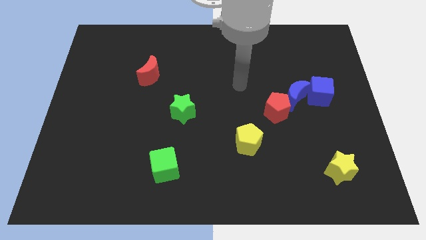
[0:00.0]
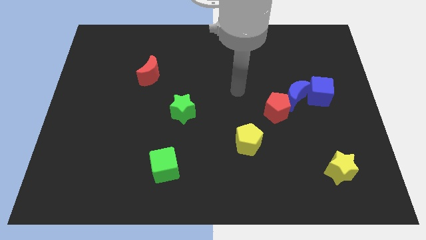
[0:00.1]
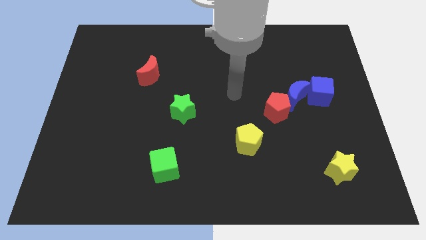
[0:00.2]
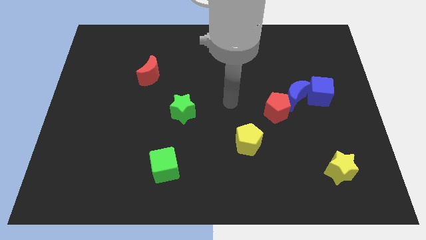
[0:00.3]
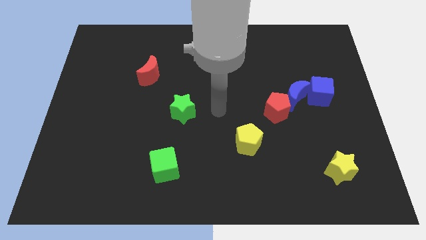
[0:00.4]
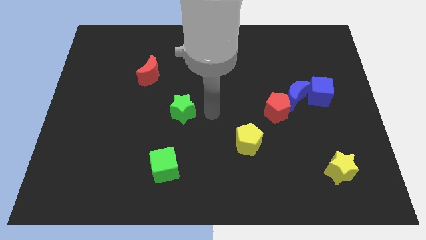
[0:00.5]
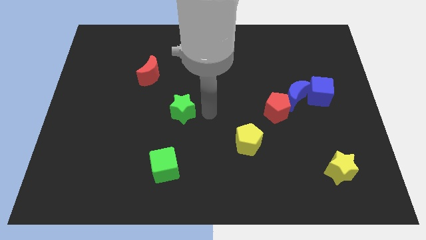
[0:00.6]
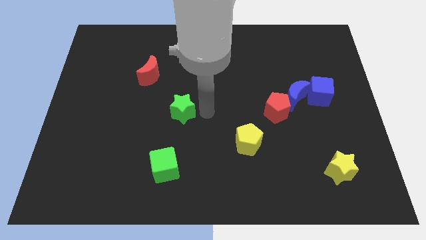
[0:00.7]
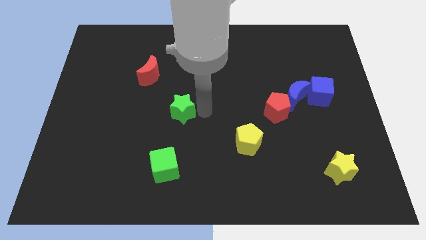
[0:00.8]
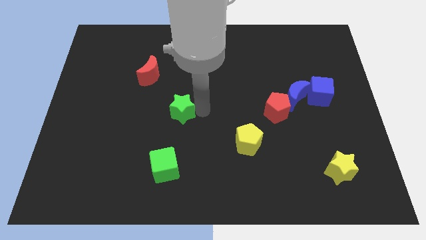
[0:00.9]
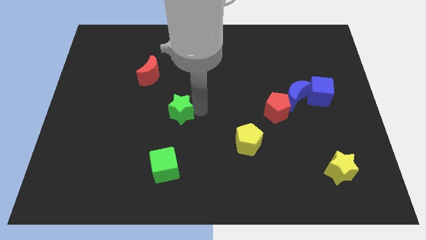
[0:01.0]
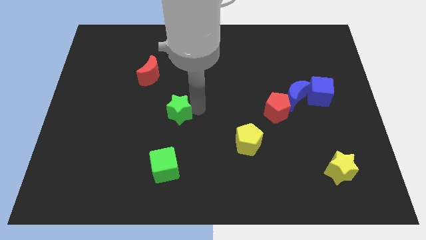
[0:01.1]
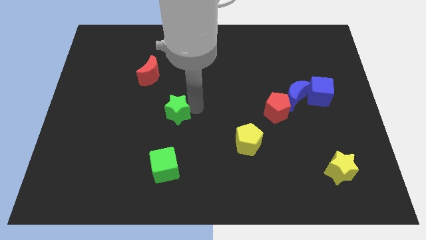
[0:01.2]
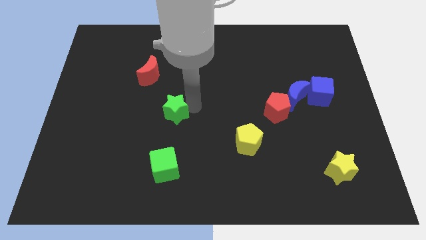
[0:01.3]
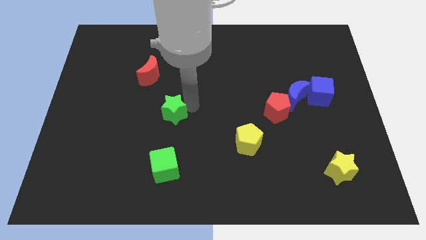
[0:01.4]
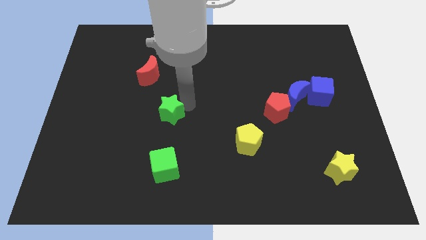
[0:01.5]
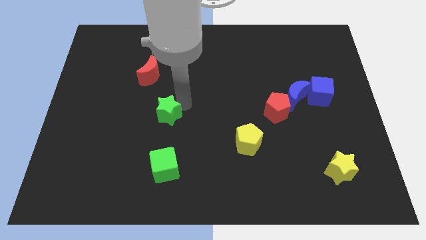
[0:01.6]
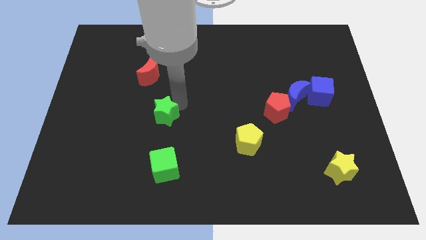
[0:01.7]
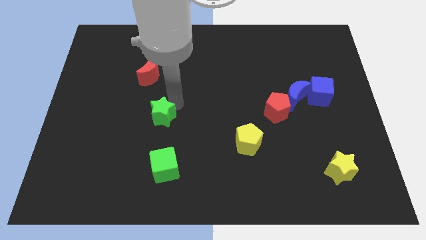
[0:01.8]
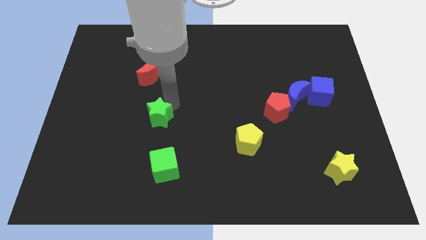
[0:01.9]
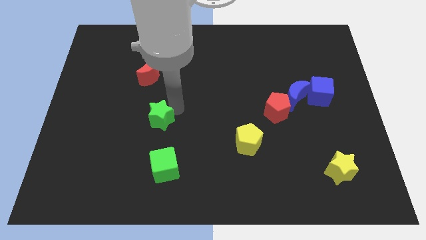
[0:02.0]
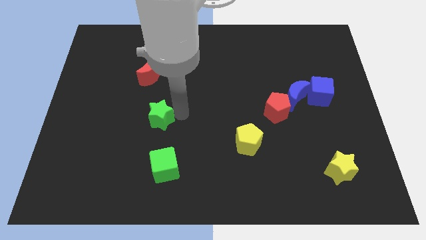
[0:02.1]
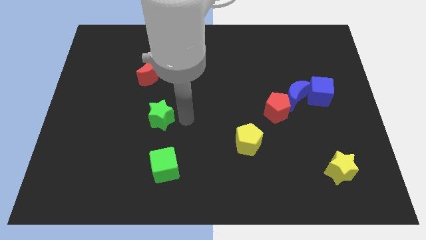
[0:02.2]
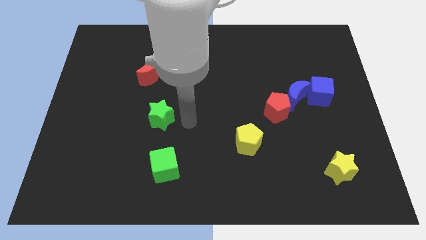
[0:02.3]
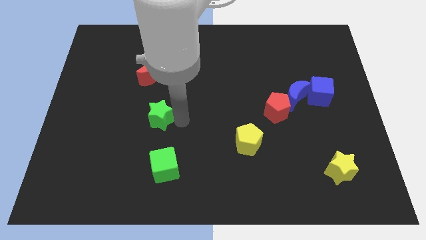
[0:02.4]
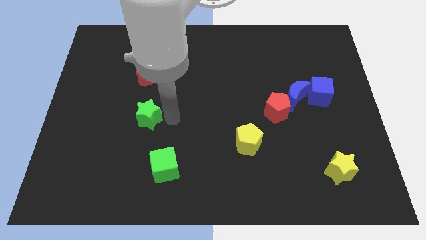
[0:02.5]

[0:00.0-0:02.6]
move the green star to the left a little bit

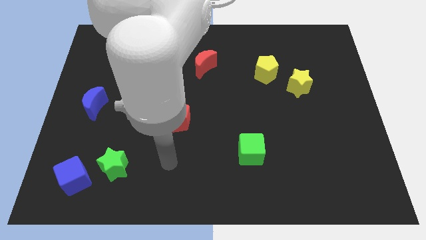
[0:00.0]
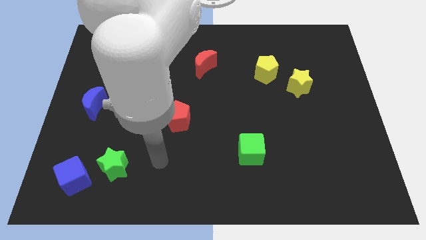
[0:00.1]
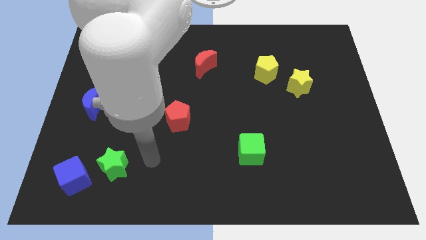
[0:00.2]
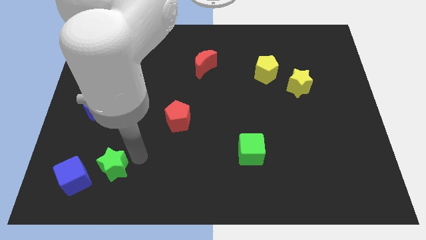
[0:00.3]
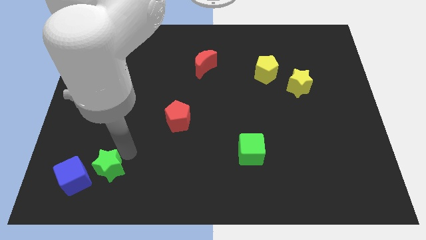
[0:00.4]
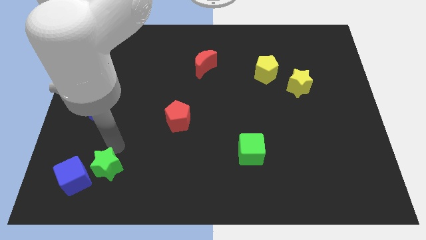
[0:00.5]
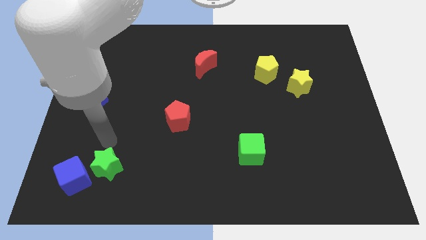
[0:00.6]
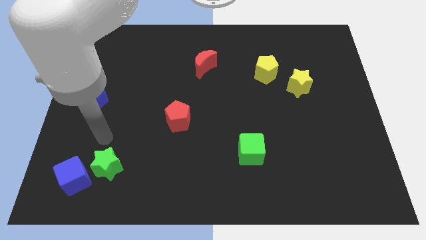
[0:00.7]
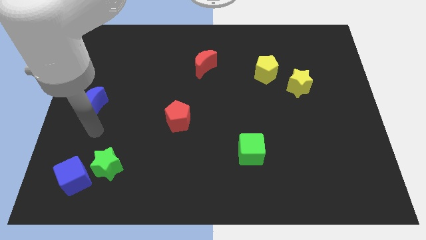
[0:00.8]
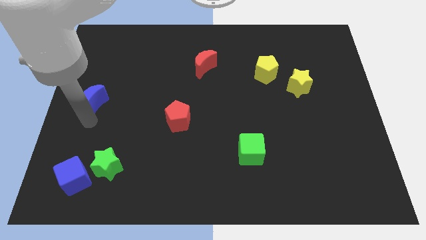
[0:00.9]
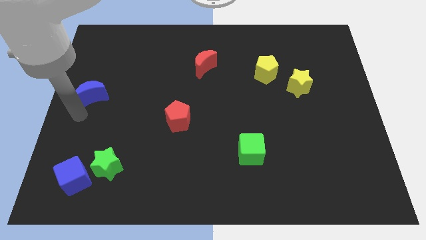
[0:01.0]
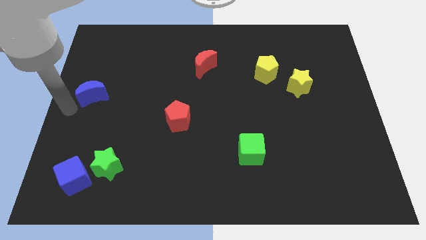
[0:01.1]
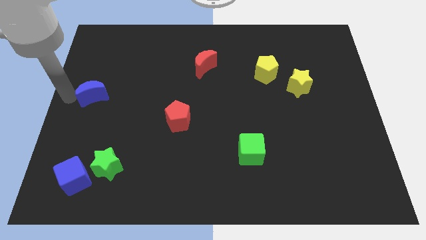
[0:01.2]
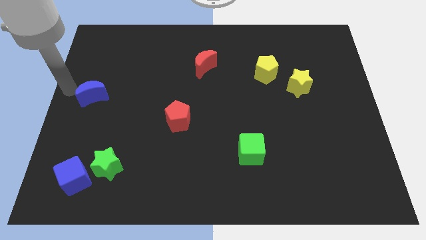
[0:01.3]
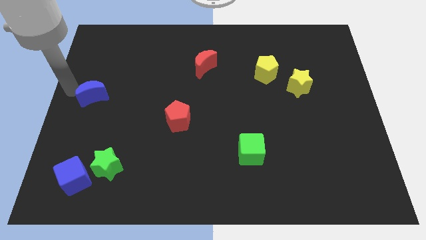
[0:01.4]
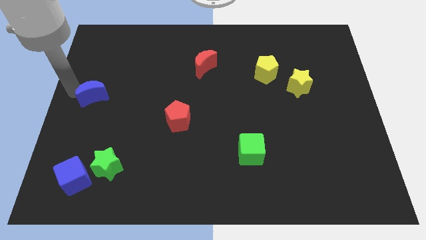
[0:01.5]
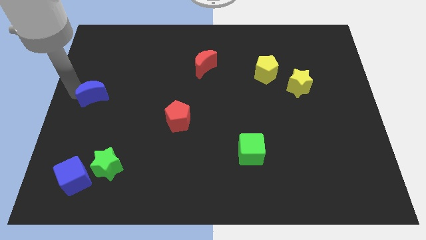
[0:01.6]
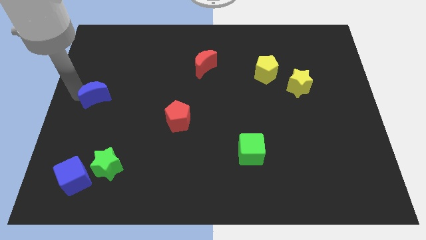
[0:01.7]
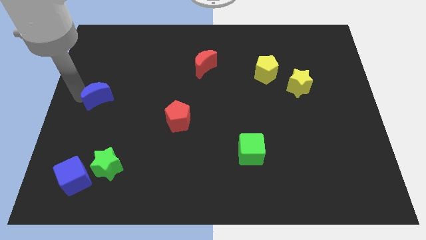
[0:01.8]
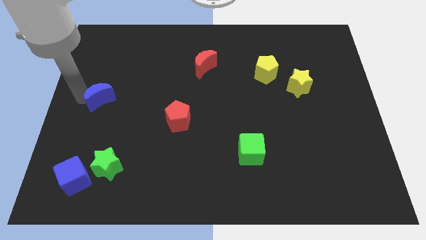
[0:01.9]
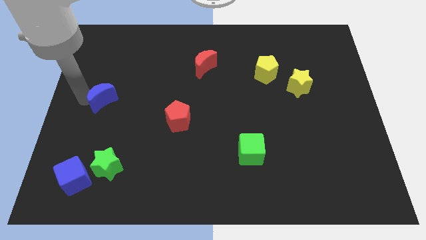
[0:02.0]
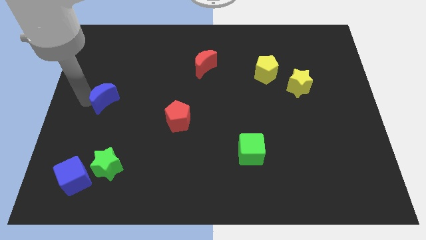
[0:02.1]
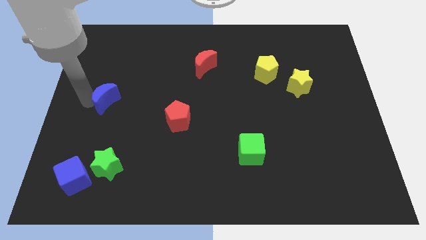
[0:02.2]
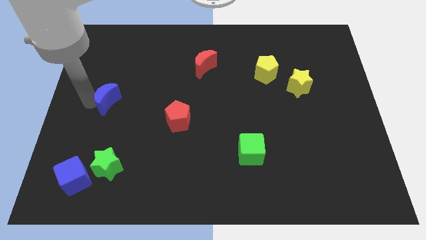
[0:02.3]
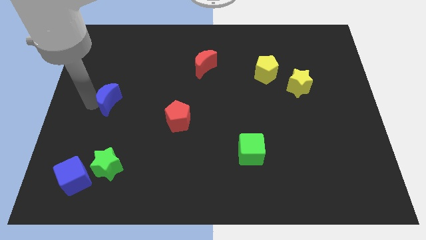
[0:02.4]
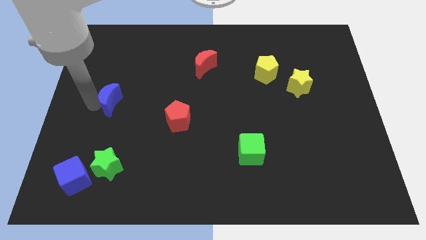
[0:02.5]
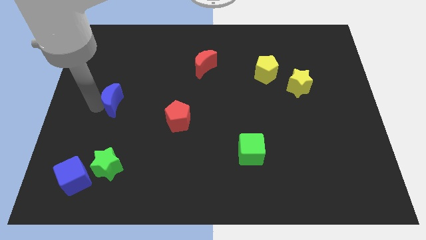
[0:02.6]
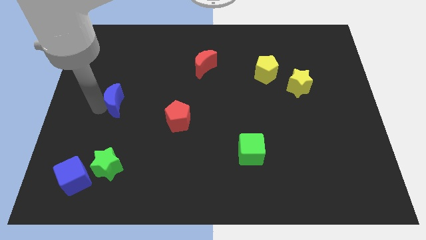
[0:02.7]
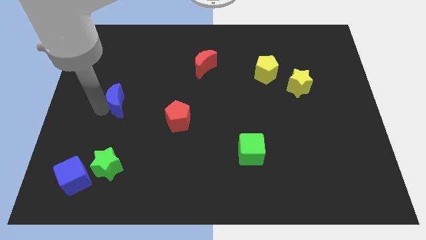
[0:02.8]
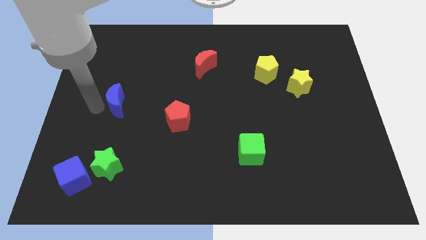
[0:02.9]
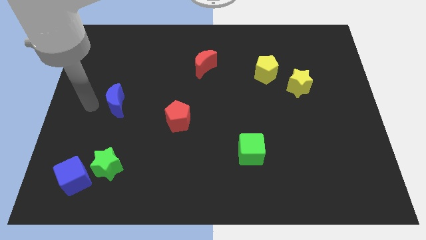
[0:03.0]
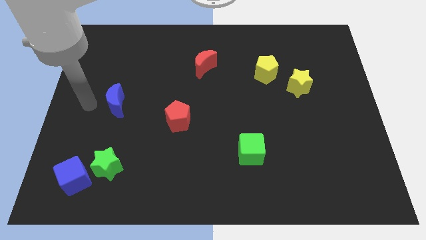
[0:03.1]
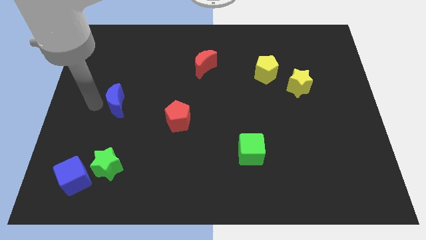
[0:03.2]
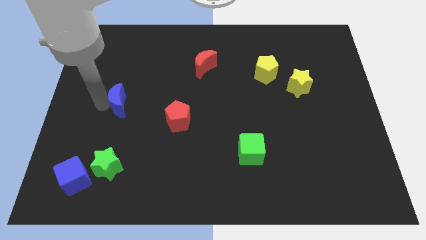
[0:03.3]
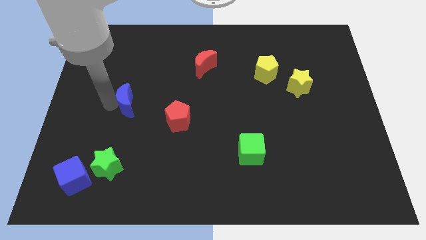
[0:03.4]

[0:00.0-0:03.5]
slightly push the blue moon right

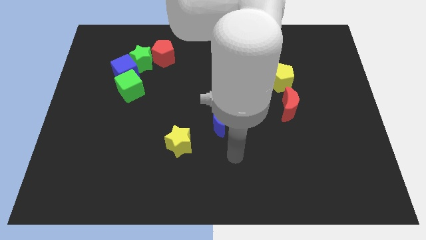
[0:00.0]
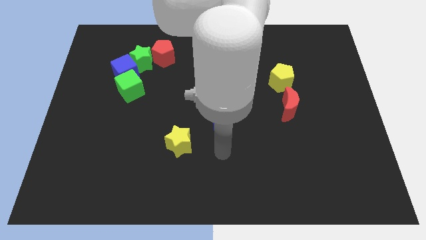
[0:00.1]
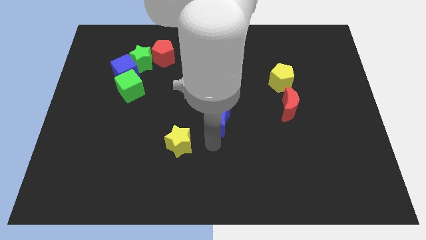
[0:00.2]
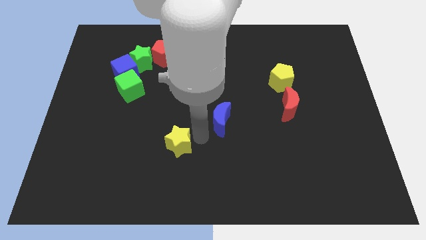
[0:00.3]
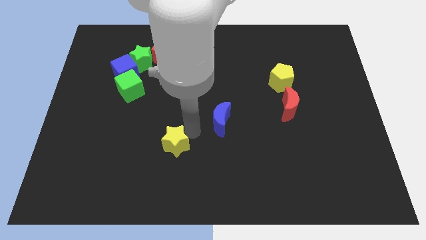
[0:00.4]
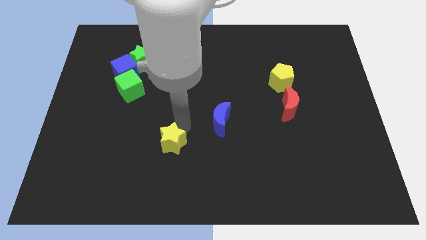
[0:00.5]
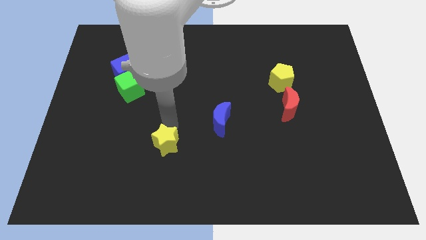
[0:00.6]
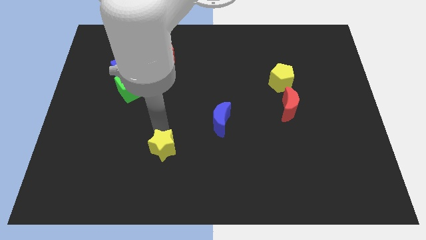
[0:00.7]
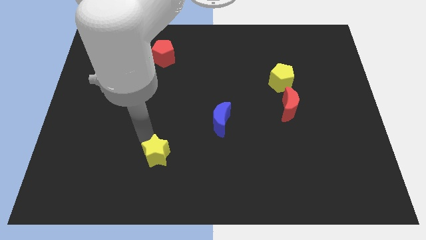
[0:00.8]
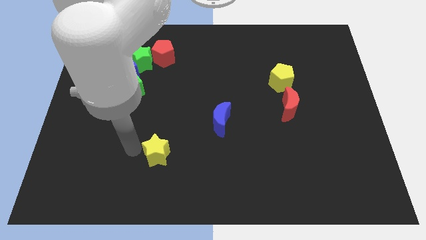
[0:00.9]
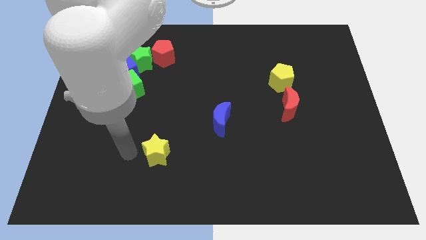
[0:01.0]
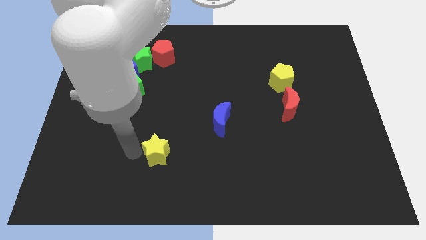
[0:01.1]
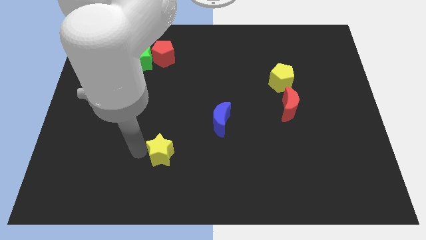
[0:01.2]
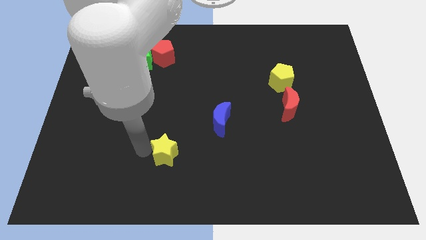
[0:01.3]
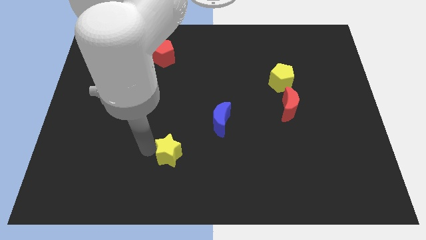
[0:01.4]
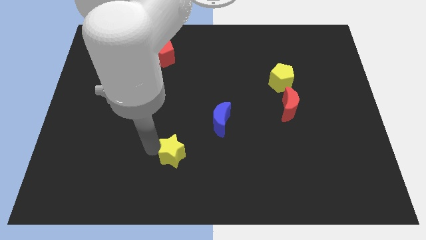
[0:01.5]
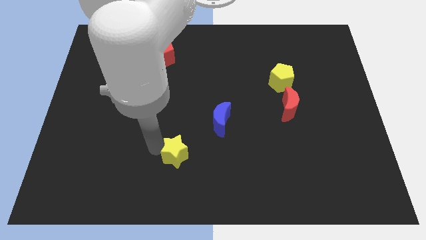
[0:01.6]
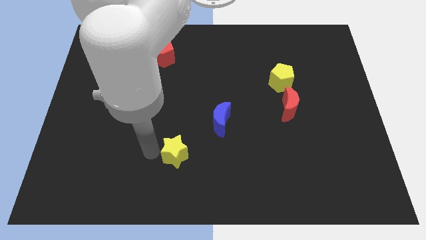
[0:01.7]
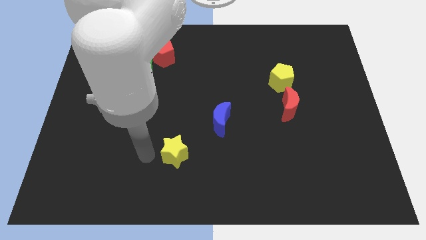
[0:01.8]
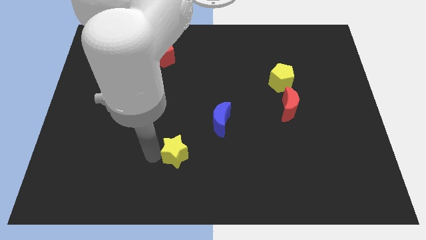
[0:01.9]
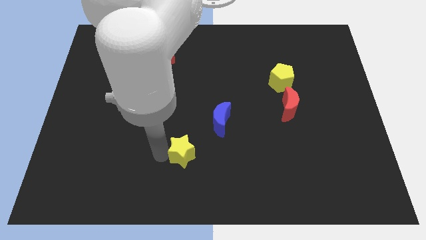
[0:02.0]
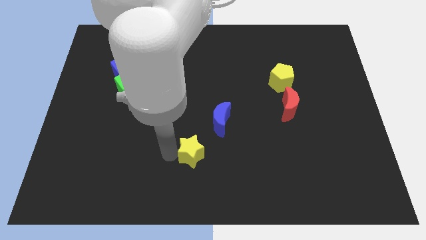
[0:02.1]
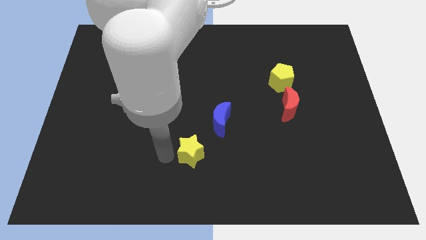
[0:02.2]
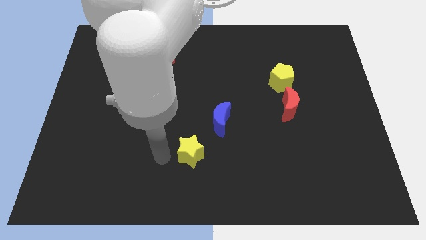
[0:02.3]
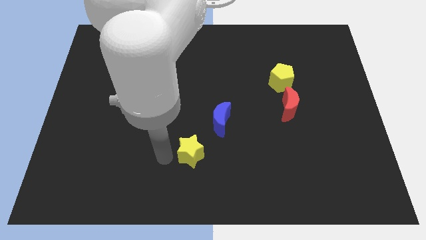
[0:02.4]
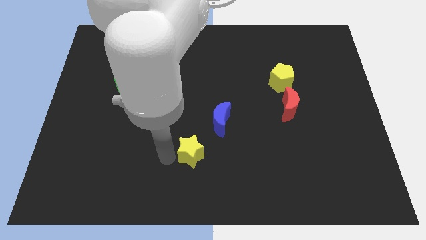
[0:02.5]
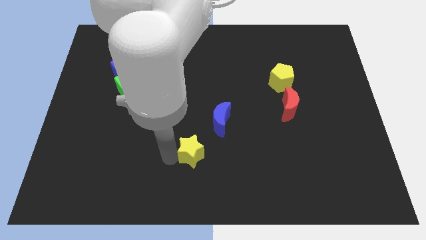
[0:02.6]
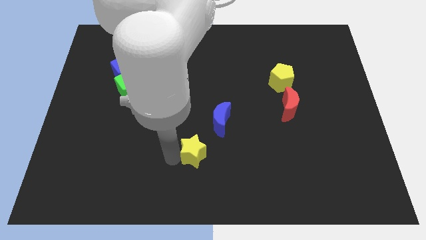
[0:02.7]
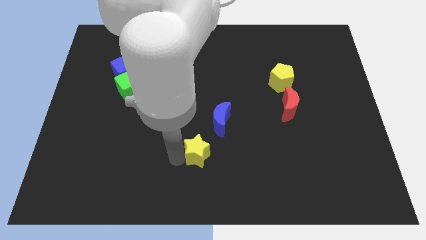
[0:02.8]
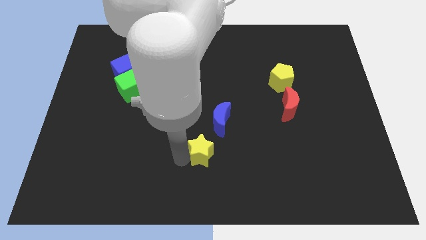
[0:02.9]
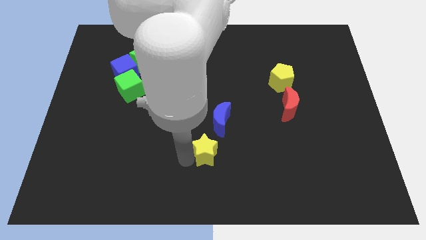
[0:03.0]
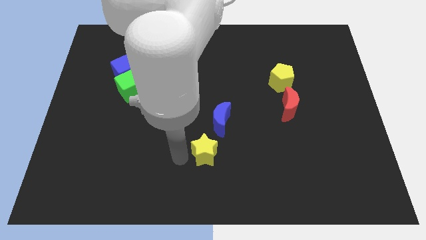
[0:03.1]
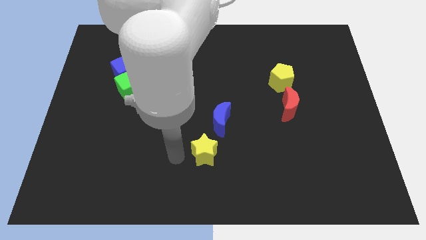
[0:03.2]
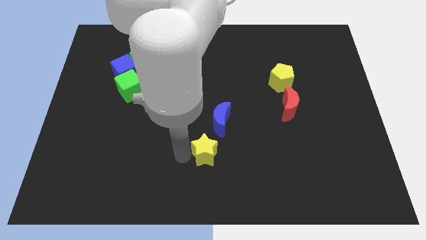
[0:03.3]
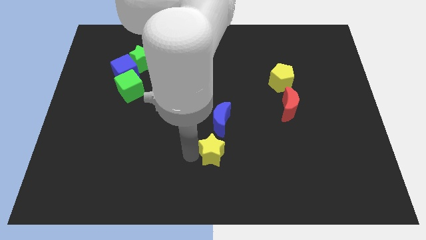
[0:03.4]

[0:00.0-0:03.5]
slightly move the yellow star to the right
